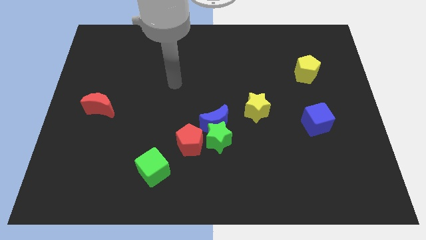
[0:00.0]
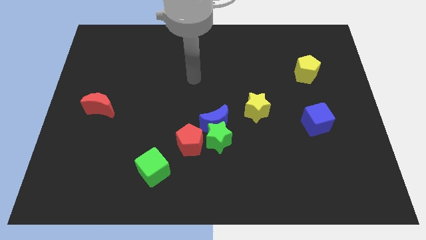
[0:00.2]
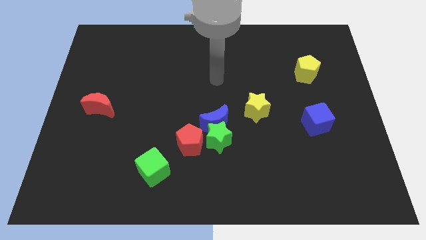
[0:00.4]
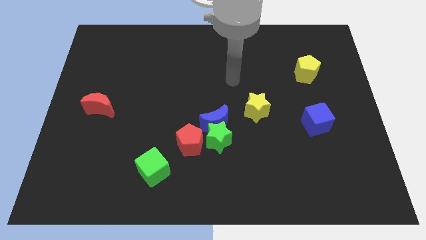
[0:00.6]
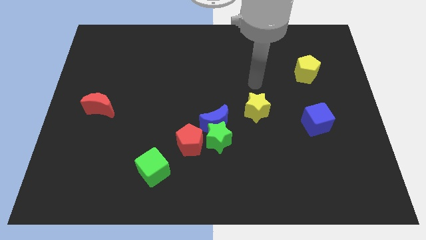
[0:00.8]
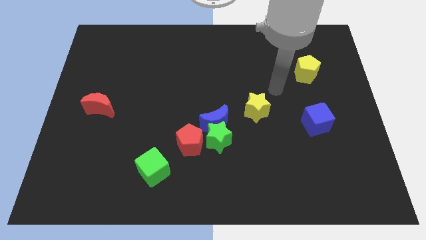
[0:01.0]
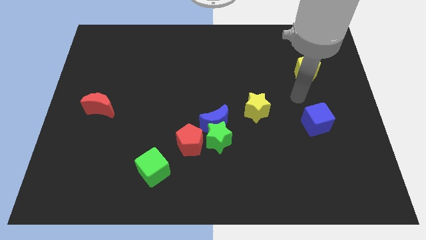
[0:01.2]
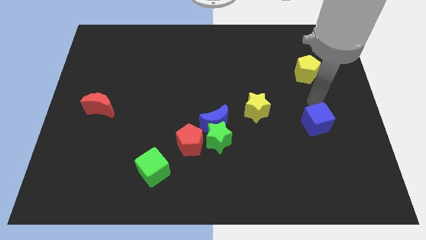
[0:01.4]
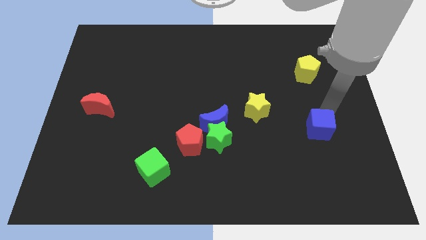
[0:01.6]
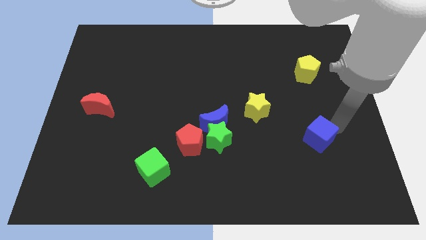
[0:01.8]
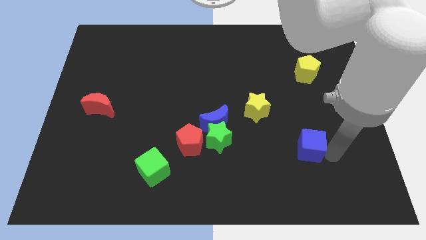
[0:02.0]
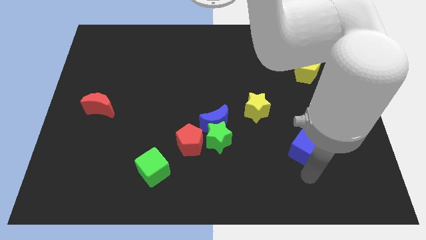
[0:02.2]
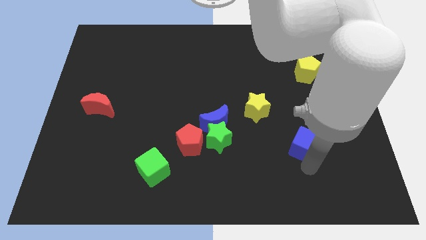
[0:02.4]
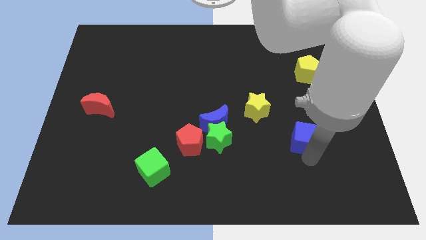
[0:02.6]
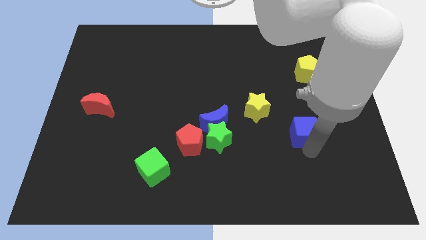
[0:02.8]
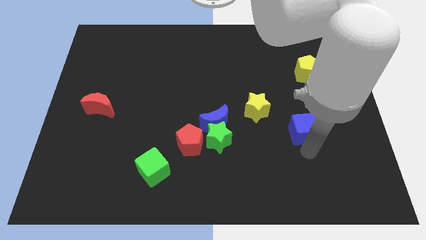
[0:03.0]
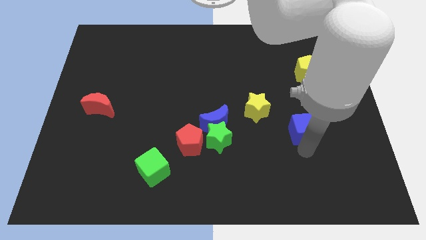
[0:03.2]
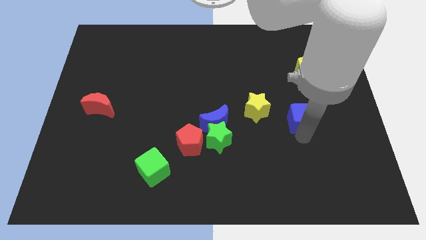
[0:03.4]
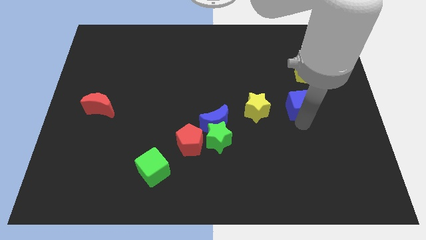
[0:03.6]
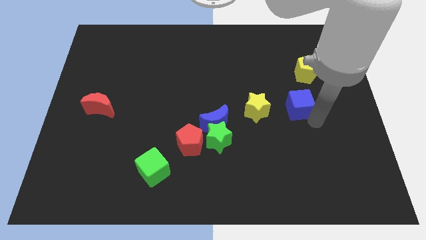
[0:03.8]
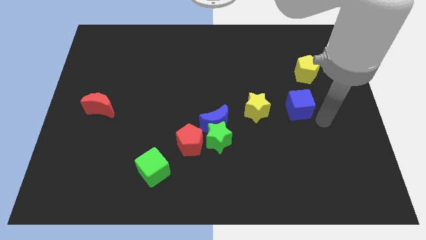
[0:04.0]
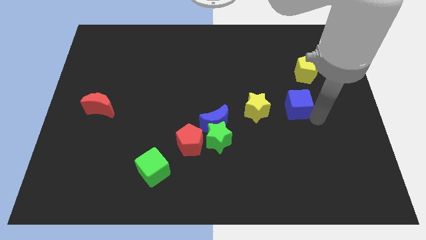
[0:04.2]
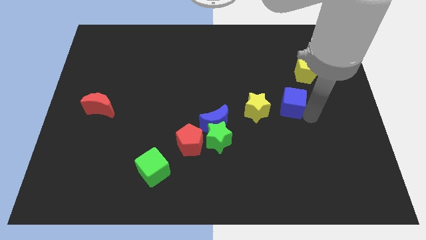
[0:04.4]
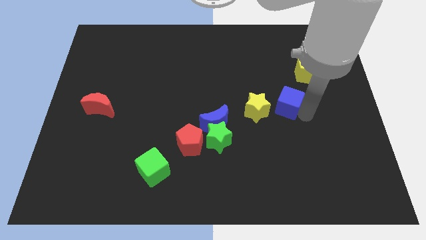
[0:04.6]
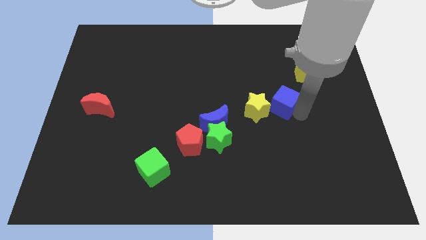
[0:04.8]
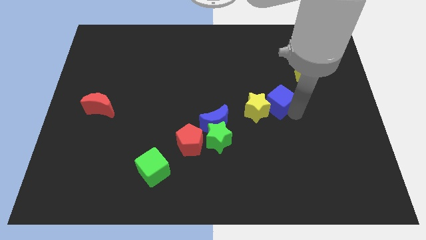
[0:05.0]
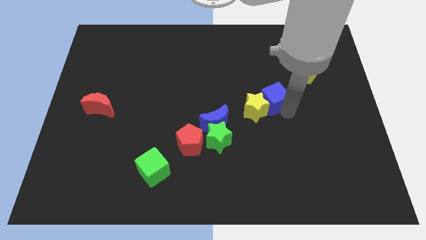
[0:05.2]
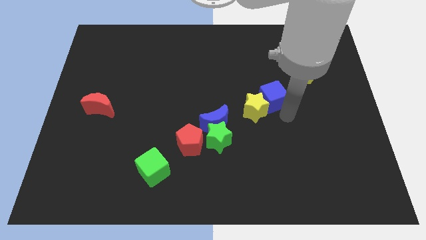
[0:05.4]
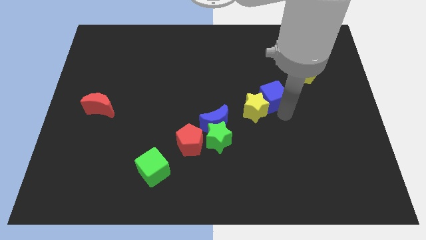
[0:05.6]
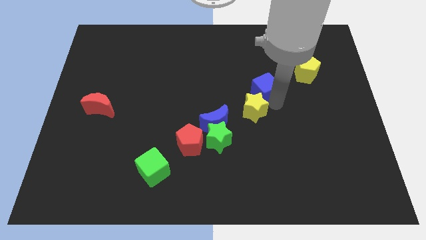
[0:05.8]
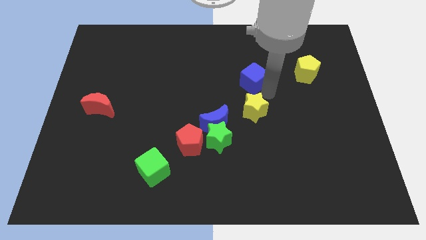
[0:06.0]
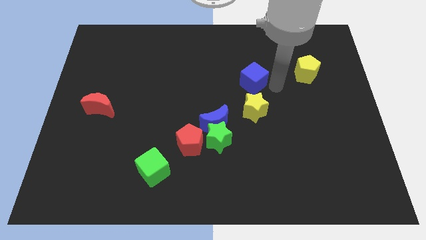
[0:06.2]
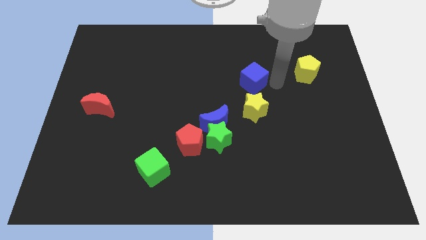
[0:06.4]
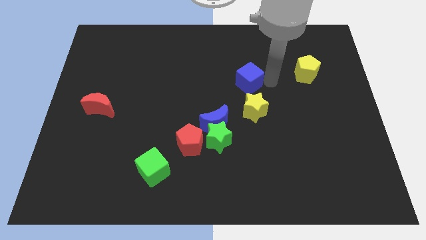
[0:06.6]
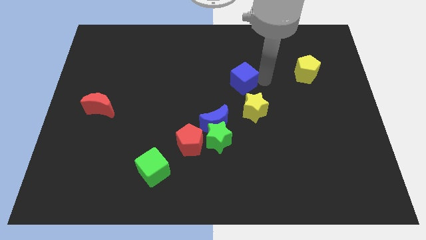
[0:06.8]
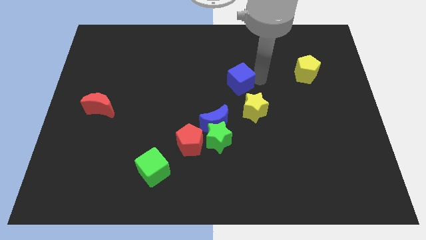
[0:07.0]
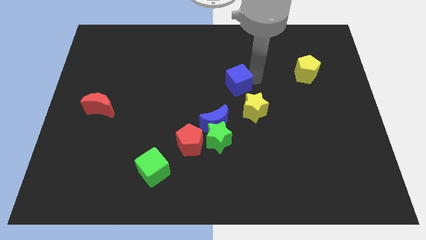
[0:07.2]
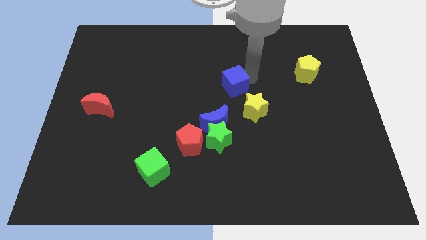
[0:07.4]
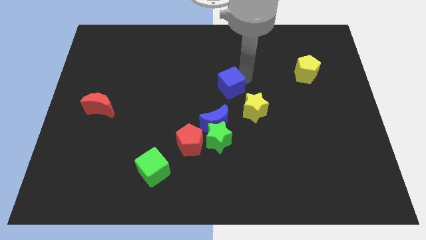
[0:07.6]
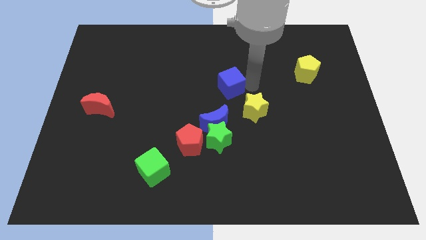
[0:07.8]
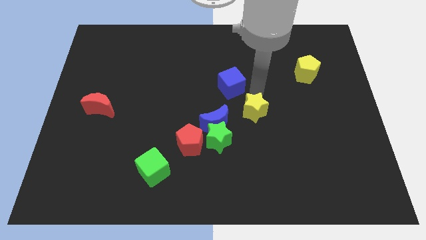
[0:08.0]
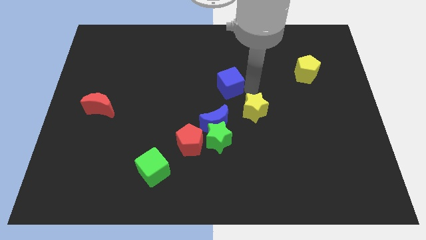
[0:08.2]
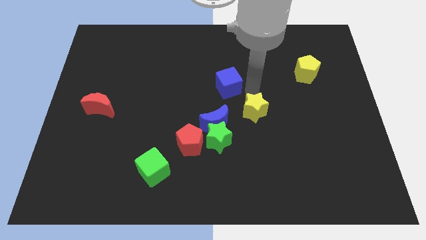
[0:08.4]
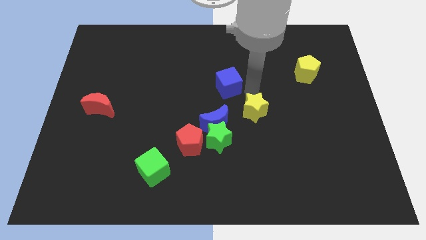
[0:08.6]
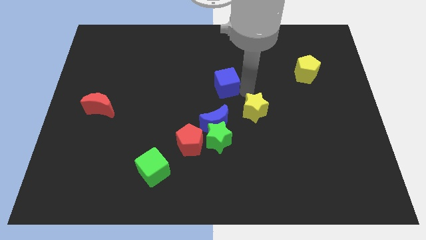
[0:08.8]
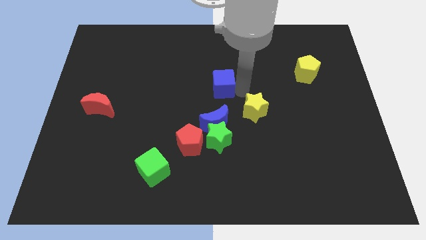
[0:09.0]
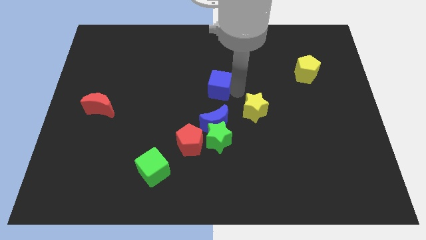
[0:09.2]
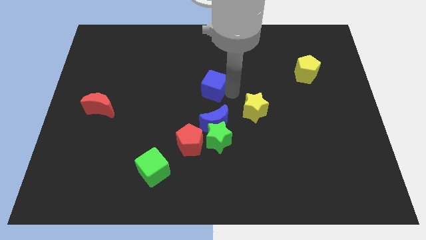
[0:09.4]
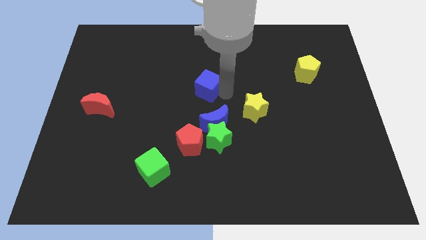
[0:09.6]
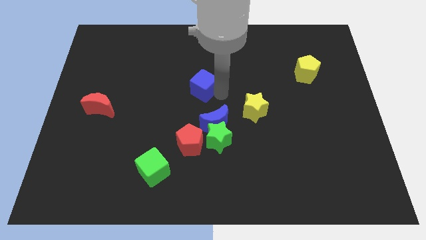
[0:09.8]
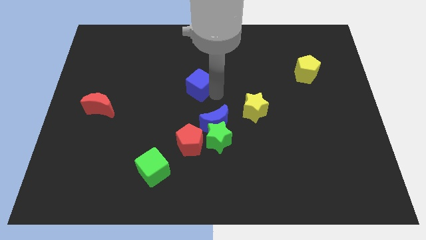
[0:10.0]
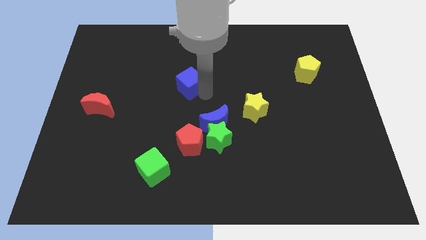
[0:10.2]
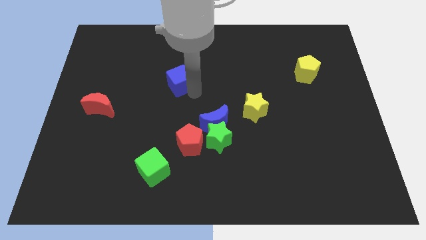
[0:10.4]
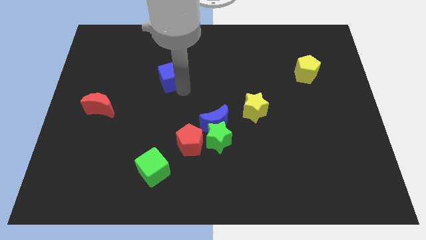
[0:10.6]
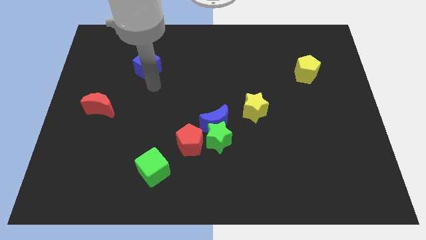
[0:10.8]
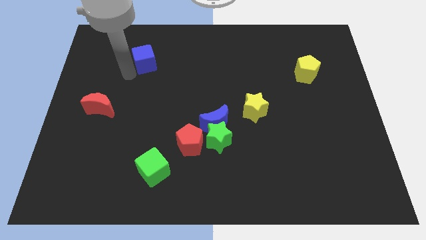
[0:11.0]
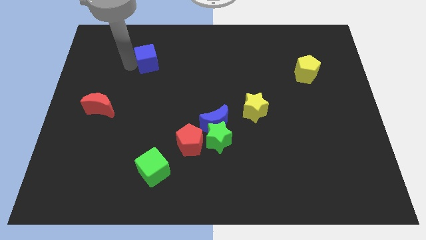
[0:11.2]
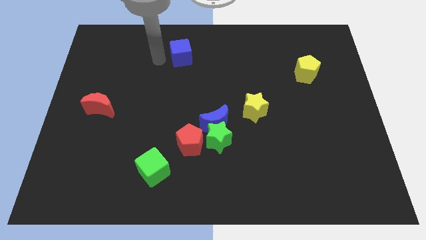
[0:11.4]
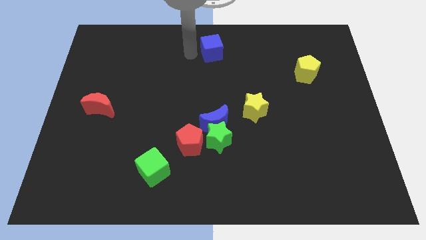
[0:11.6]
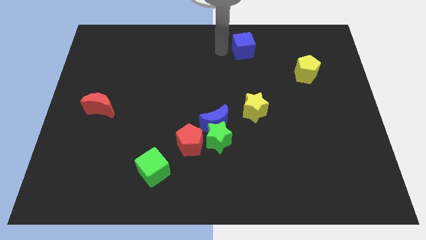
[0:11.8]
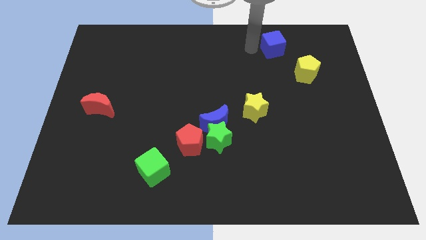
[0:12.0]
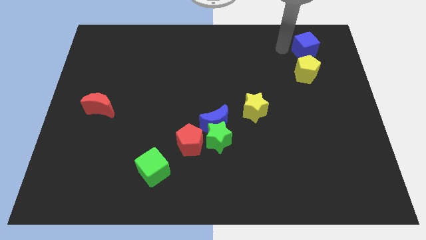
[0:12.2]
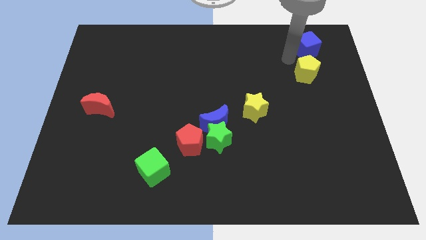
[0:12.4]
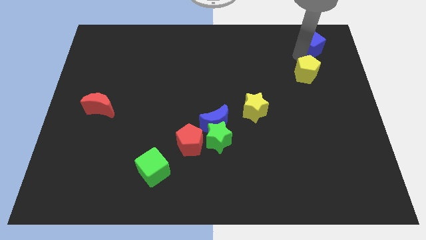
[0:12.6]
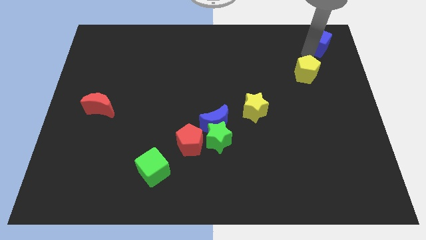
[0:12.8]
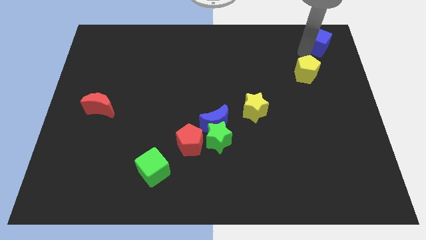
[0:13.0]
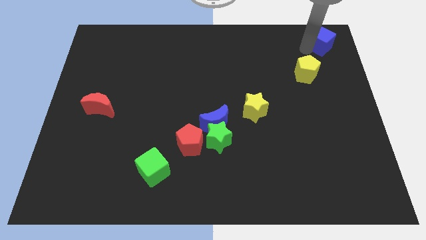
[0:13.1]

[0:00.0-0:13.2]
put the blue cube to the top right
